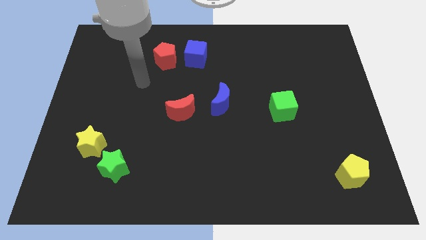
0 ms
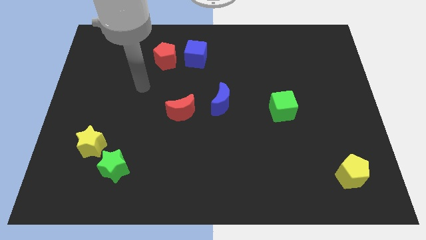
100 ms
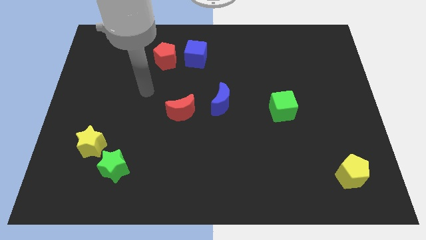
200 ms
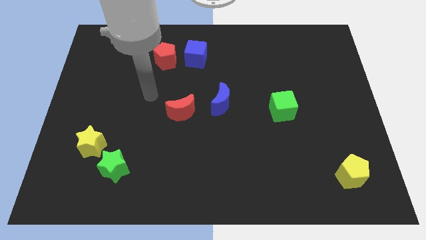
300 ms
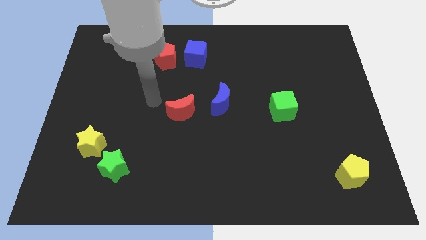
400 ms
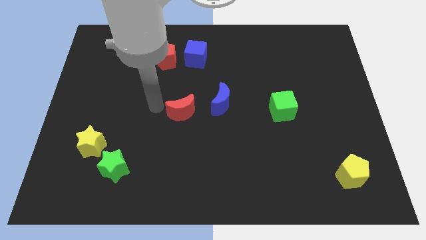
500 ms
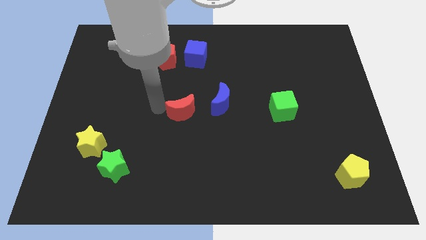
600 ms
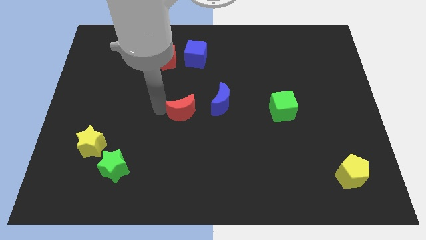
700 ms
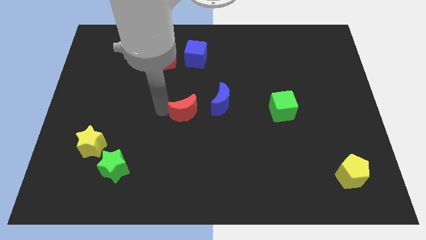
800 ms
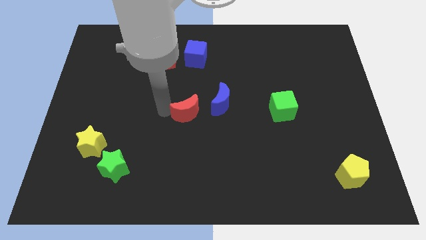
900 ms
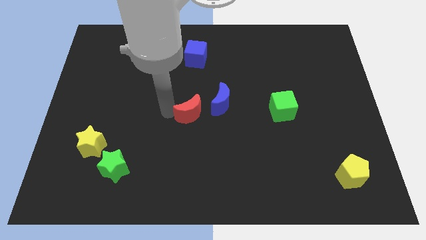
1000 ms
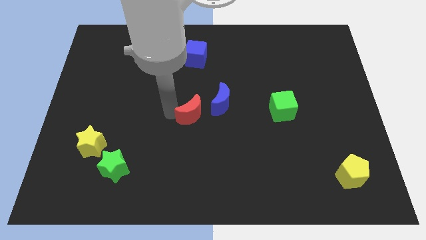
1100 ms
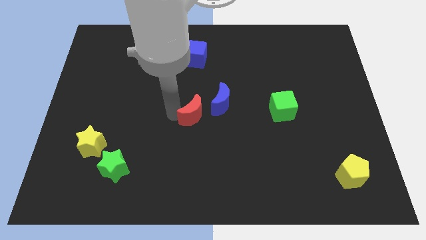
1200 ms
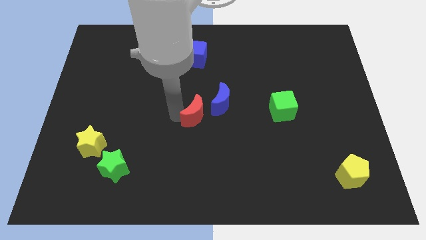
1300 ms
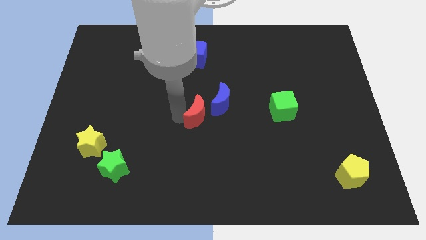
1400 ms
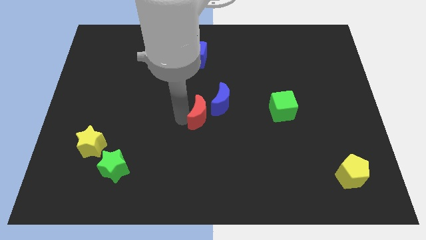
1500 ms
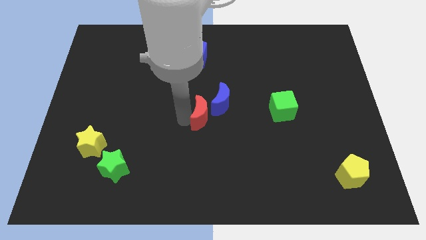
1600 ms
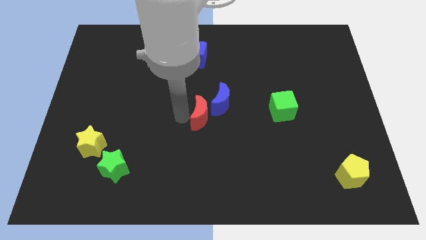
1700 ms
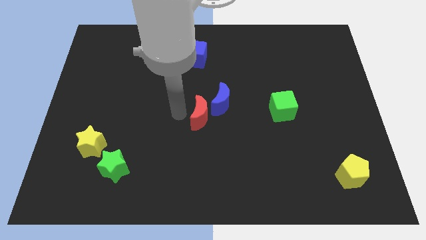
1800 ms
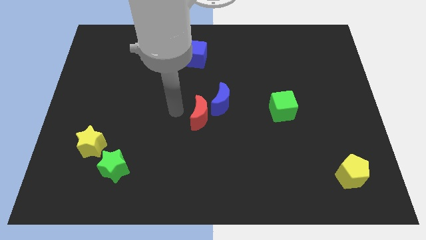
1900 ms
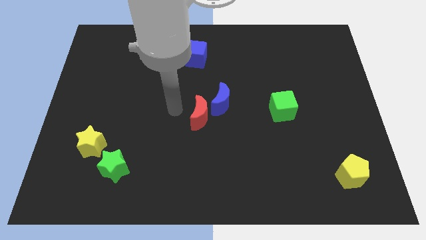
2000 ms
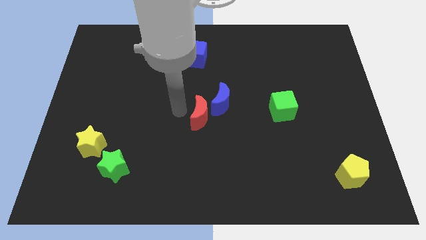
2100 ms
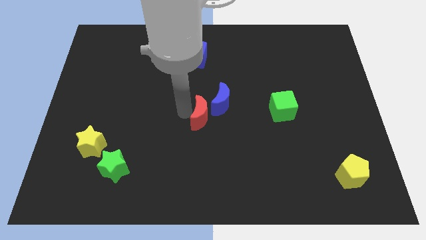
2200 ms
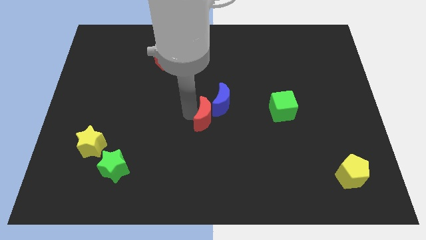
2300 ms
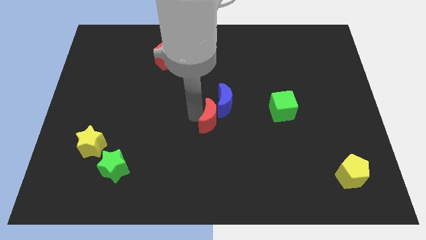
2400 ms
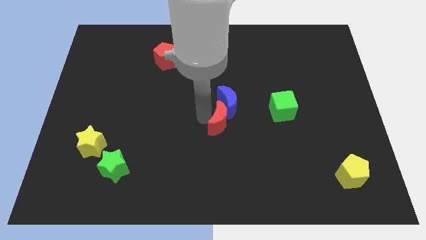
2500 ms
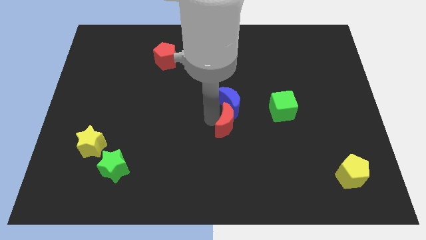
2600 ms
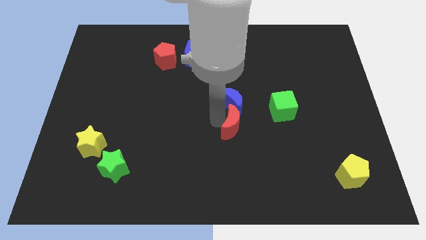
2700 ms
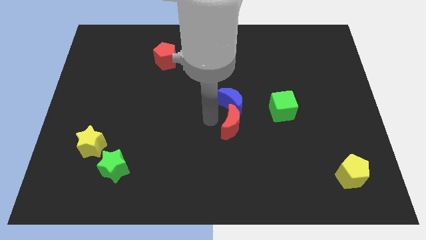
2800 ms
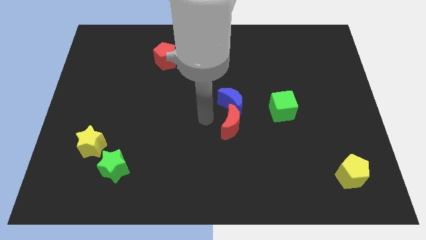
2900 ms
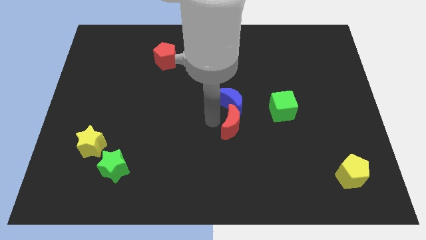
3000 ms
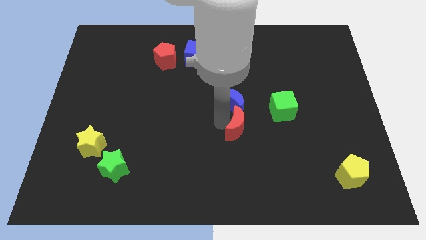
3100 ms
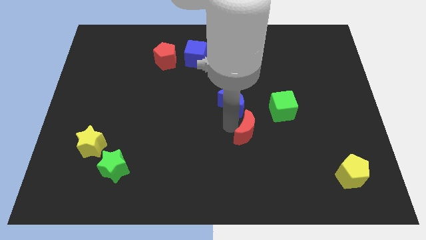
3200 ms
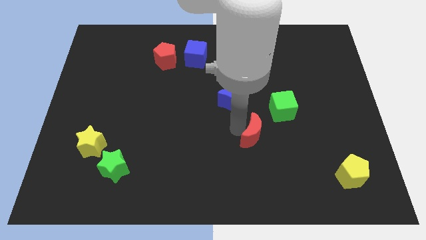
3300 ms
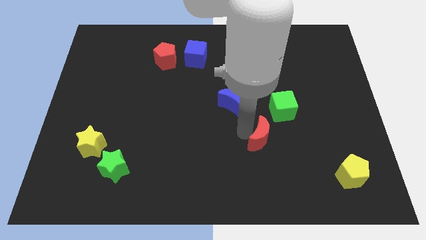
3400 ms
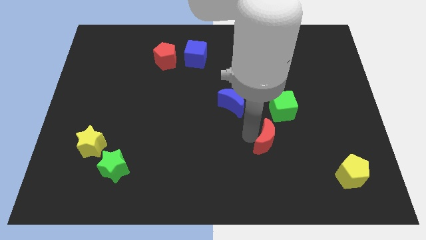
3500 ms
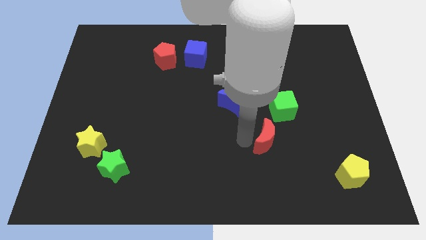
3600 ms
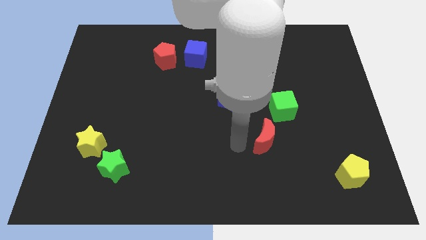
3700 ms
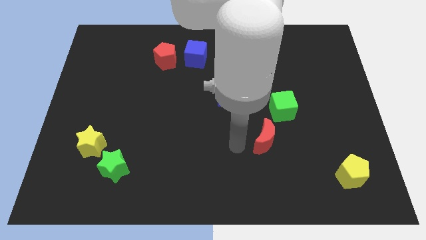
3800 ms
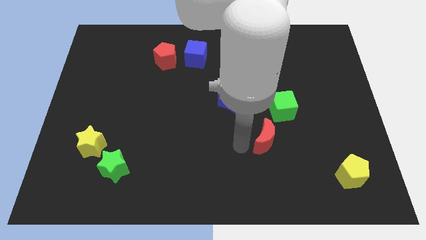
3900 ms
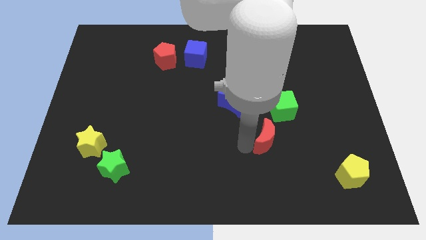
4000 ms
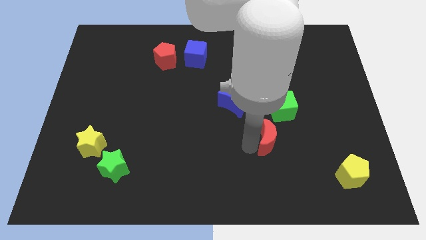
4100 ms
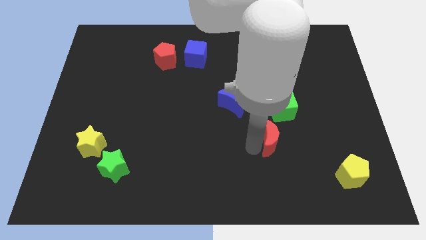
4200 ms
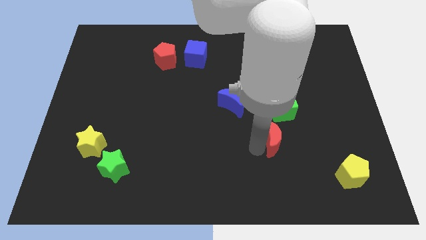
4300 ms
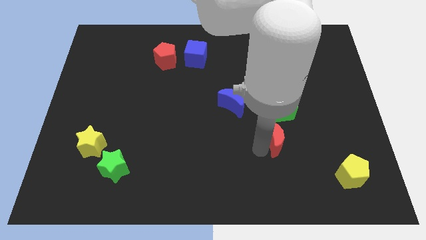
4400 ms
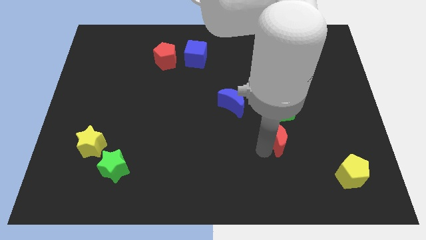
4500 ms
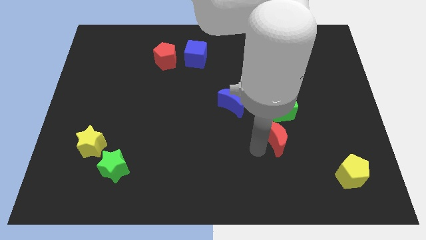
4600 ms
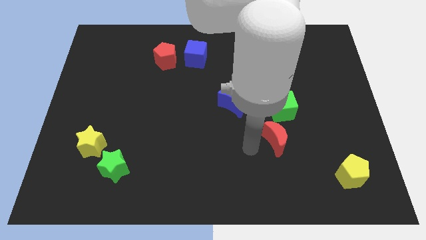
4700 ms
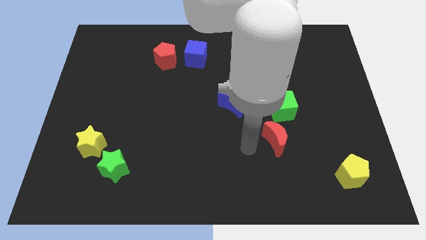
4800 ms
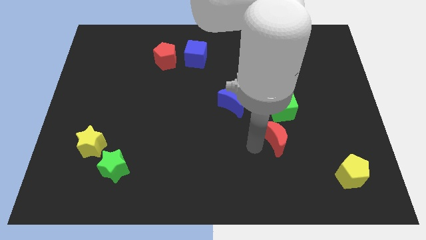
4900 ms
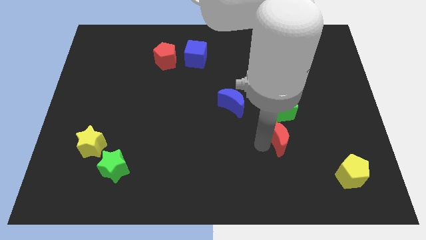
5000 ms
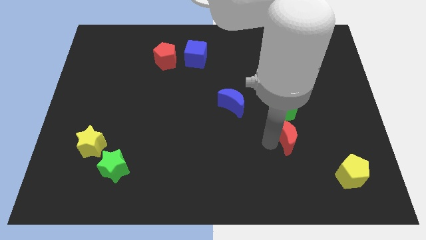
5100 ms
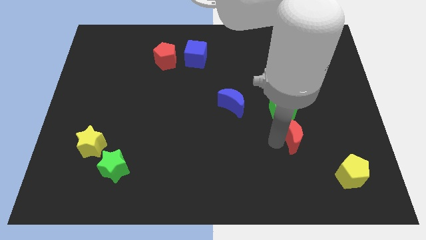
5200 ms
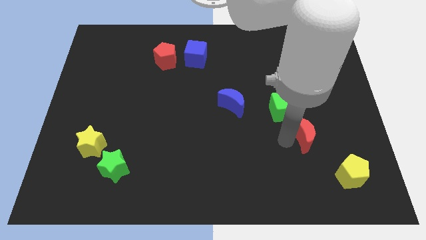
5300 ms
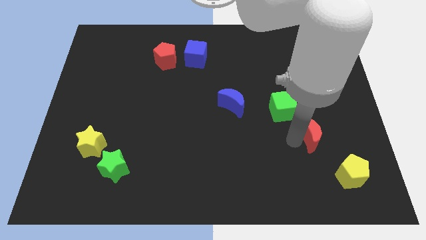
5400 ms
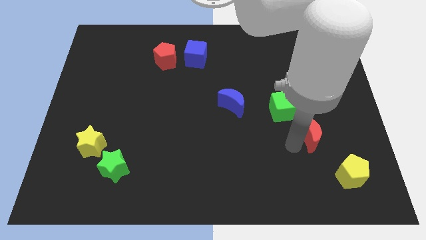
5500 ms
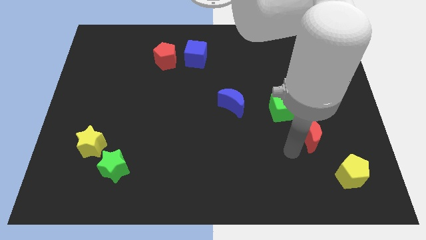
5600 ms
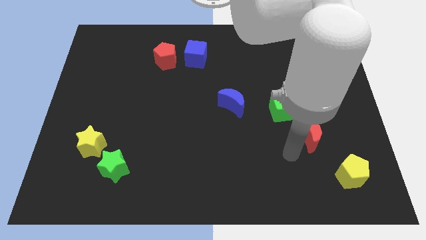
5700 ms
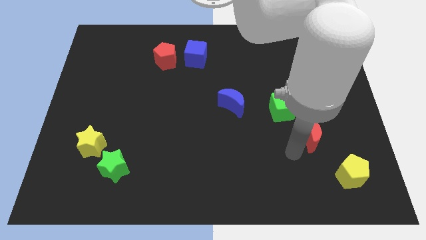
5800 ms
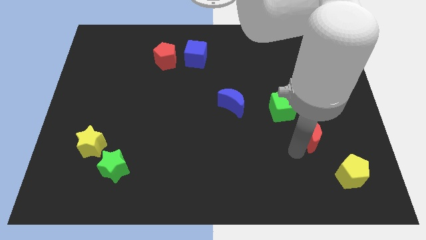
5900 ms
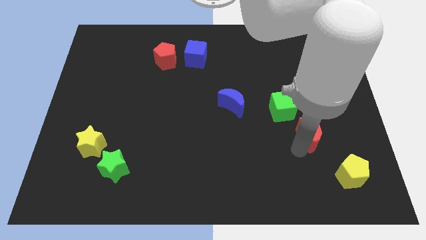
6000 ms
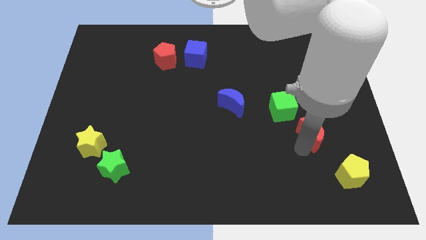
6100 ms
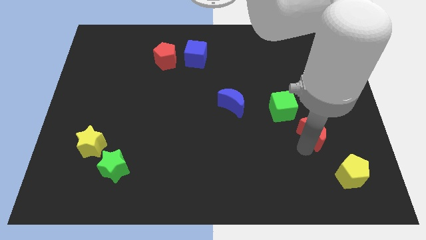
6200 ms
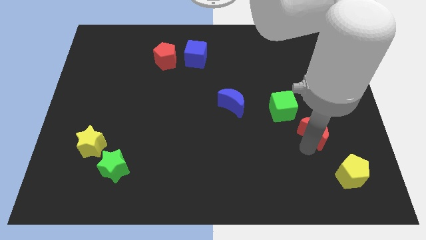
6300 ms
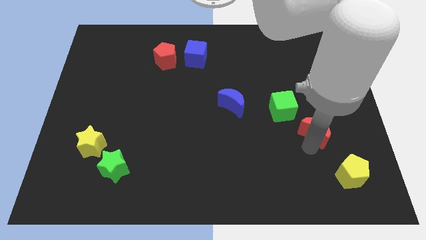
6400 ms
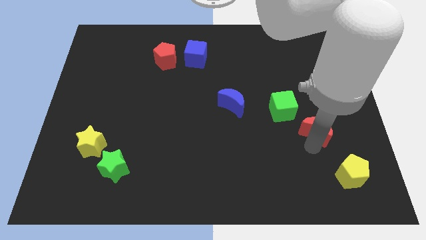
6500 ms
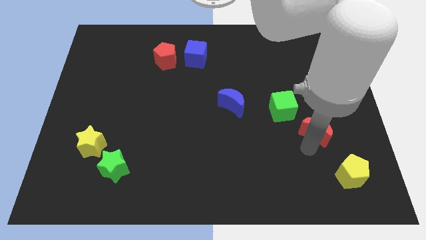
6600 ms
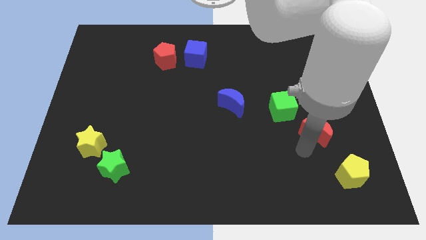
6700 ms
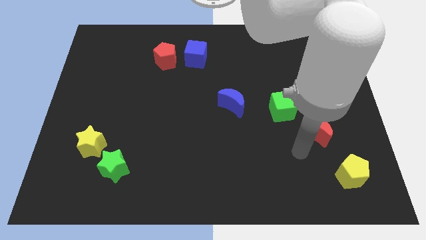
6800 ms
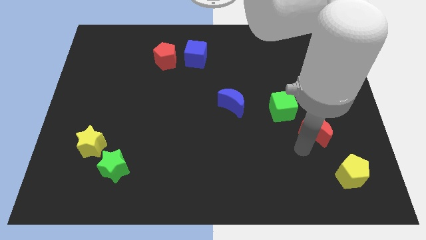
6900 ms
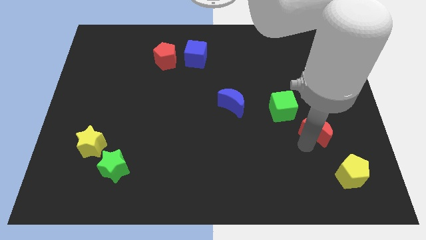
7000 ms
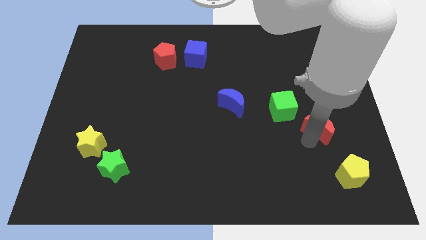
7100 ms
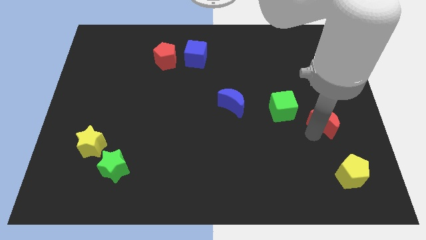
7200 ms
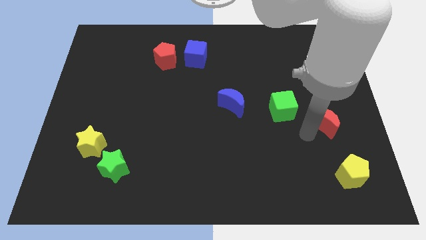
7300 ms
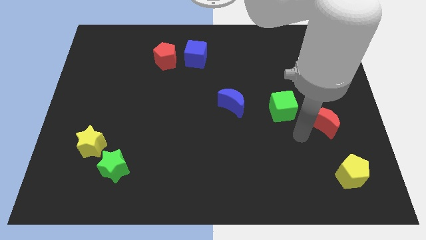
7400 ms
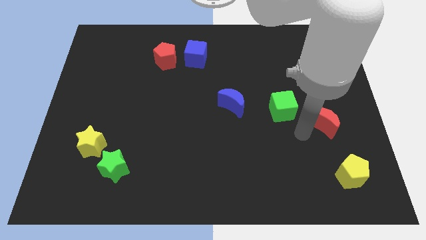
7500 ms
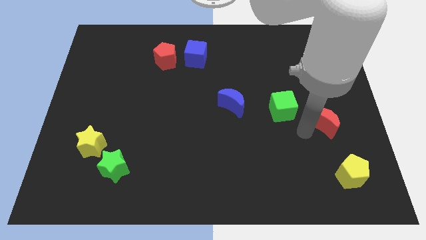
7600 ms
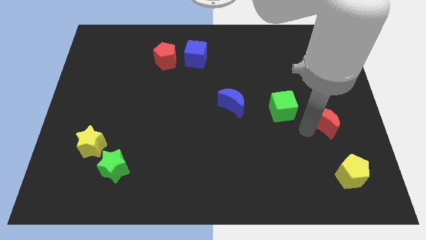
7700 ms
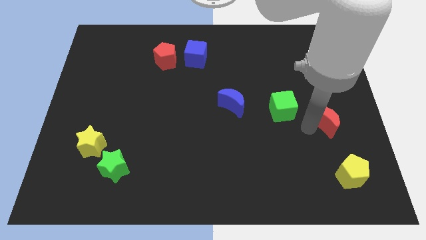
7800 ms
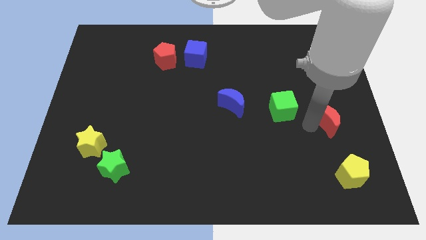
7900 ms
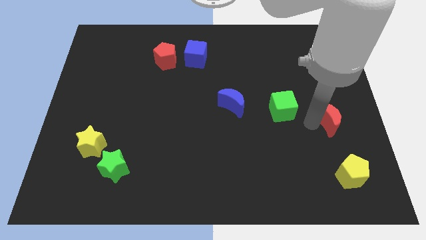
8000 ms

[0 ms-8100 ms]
slide the red moon to the right side
